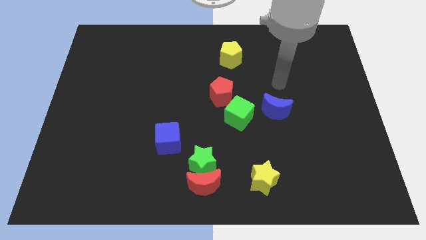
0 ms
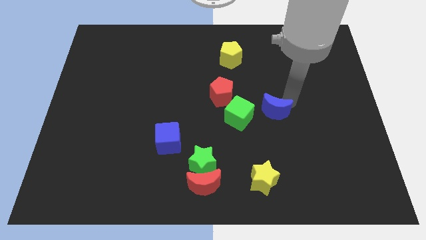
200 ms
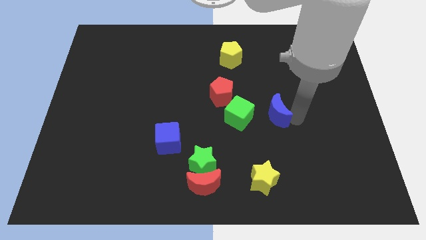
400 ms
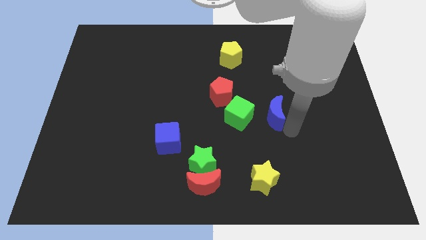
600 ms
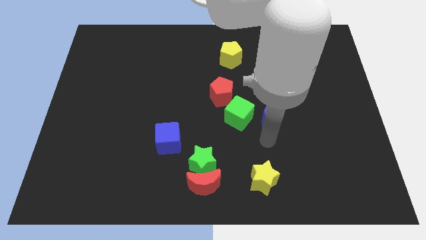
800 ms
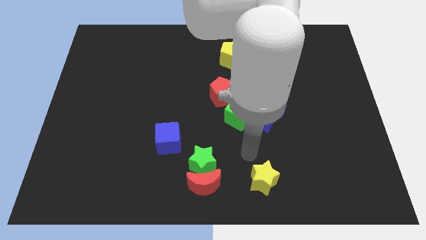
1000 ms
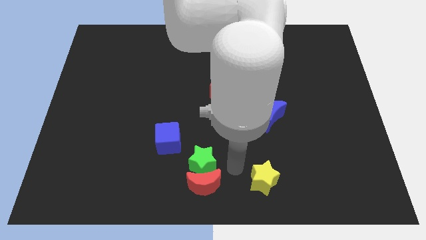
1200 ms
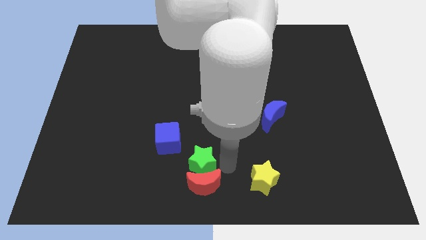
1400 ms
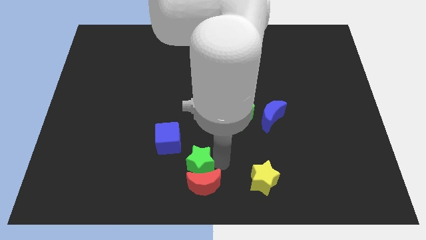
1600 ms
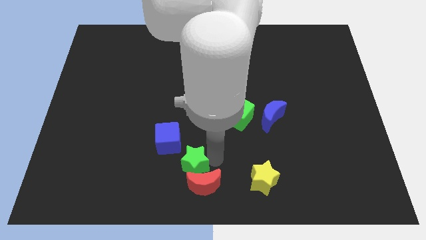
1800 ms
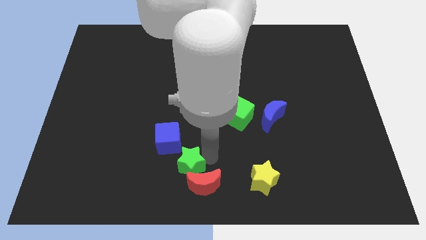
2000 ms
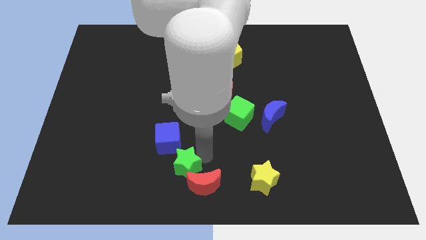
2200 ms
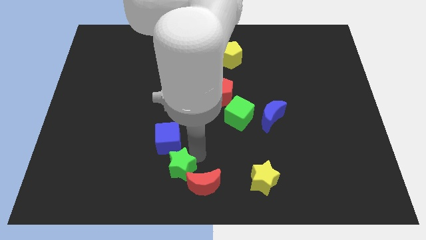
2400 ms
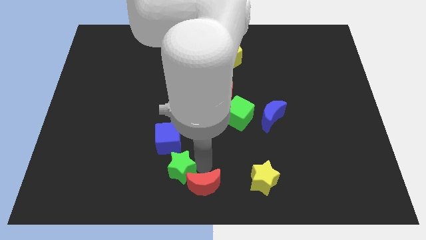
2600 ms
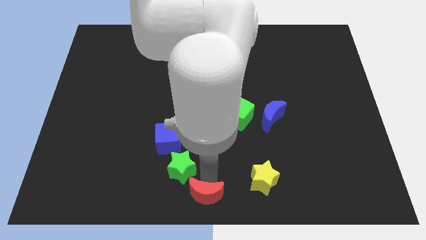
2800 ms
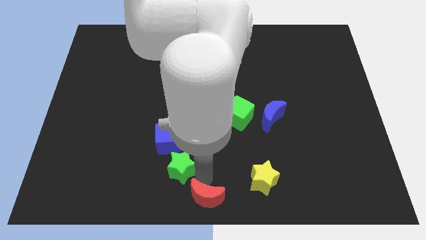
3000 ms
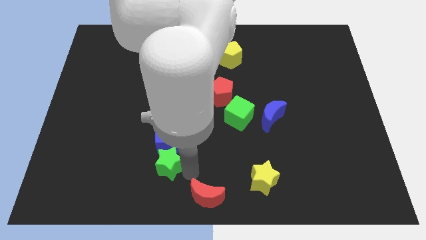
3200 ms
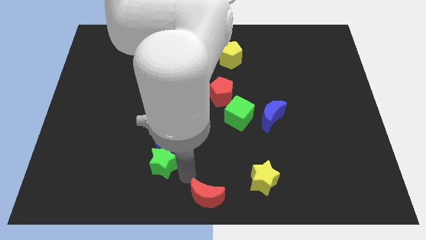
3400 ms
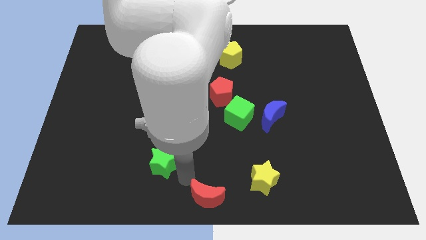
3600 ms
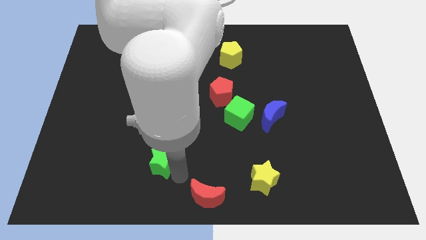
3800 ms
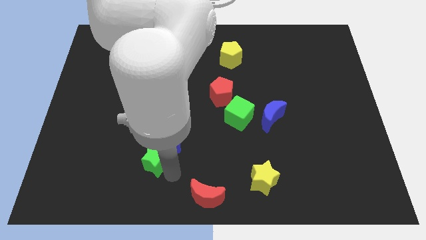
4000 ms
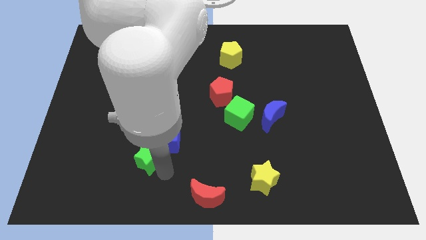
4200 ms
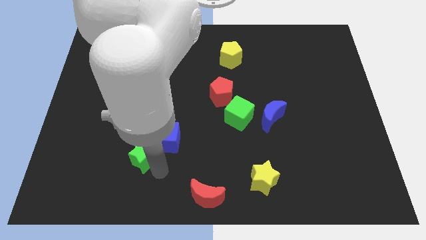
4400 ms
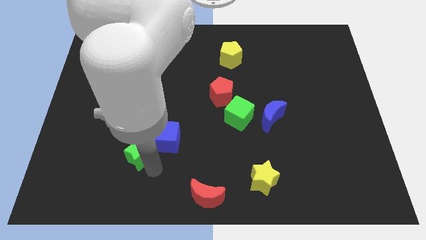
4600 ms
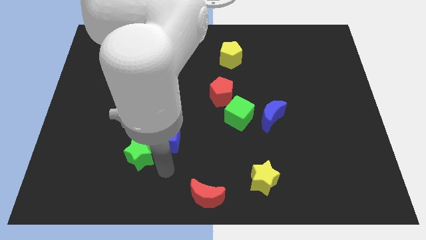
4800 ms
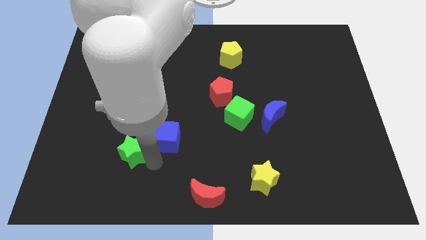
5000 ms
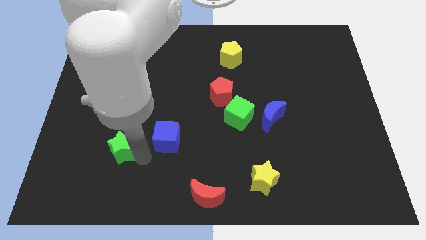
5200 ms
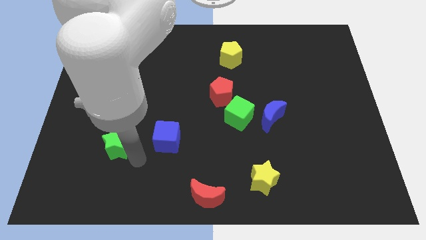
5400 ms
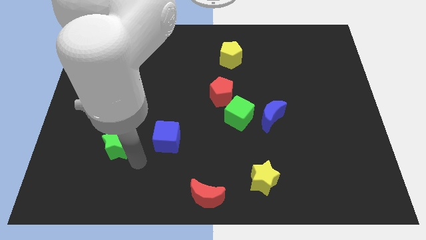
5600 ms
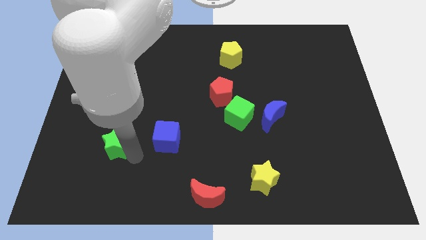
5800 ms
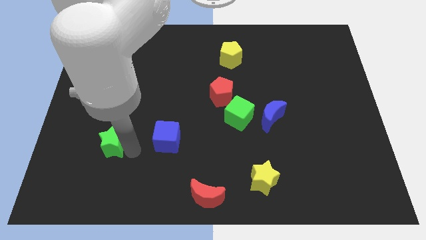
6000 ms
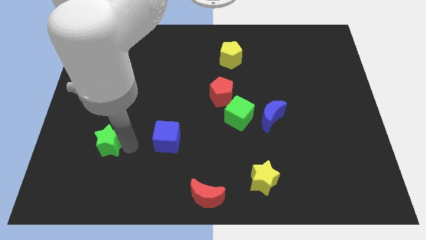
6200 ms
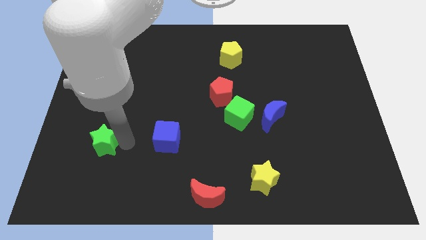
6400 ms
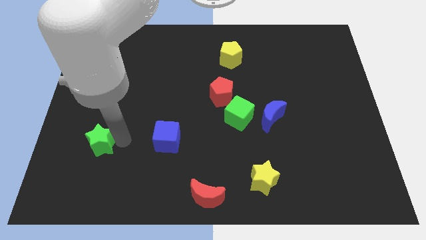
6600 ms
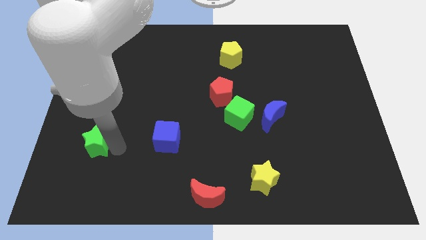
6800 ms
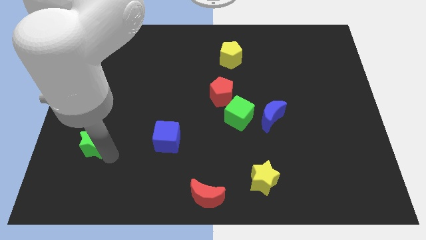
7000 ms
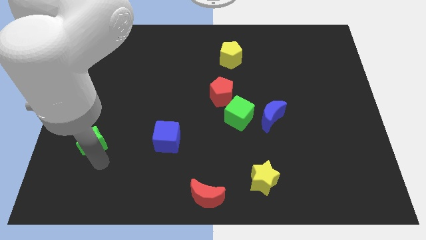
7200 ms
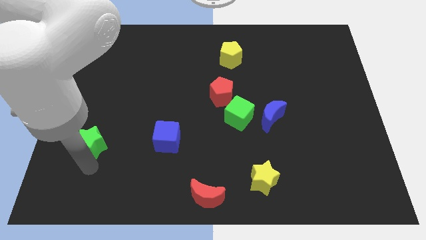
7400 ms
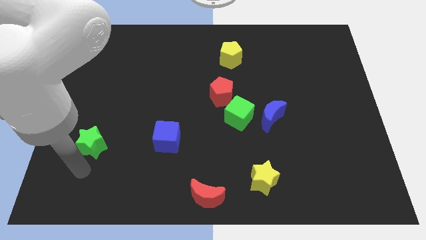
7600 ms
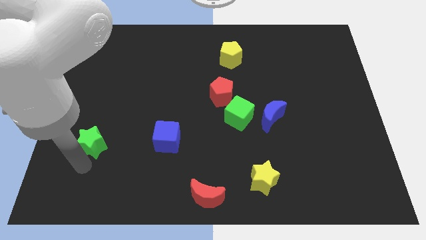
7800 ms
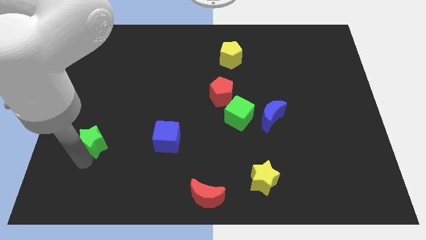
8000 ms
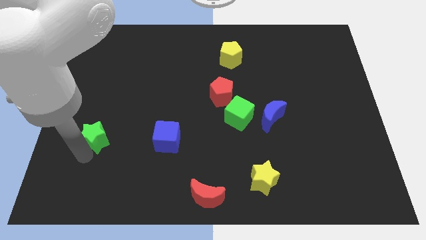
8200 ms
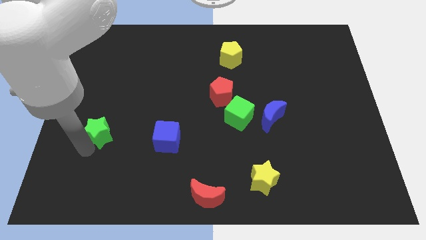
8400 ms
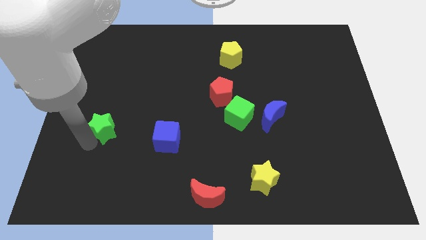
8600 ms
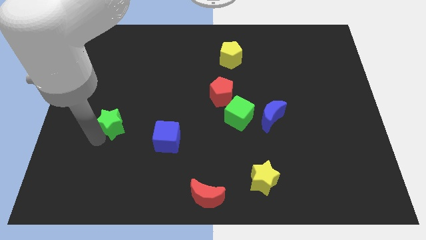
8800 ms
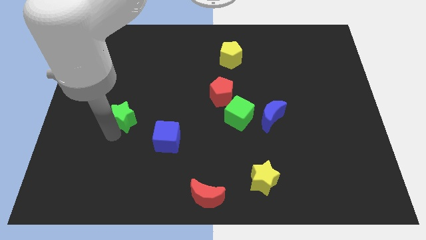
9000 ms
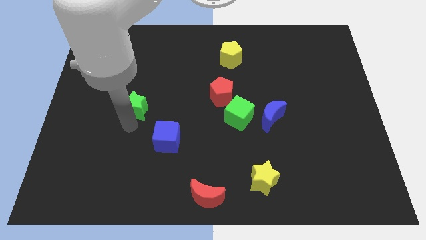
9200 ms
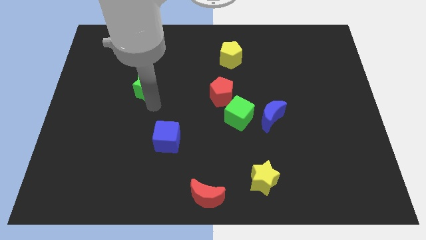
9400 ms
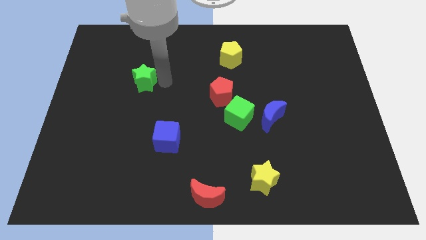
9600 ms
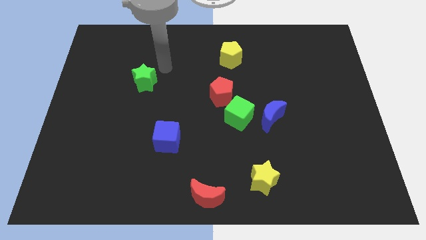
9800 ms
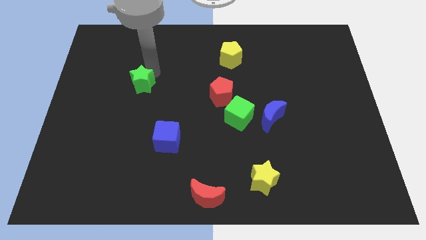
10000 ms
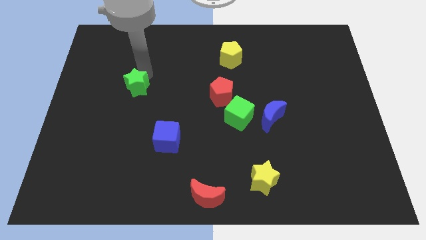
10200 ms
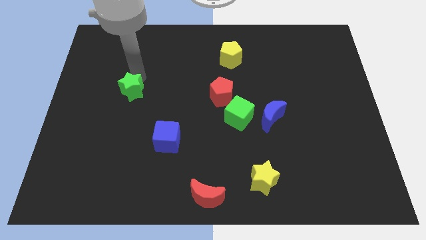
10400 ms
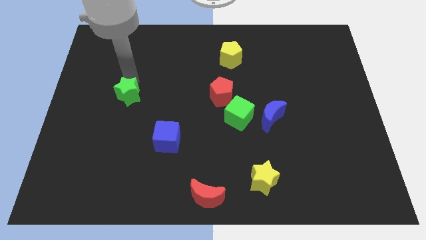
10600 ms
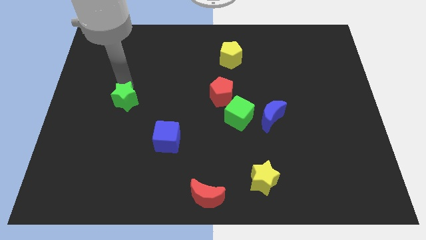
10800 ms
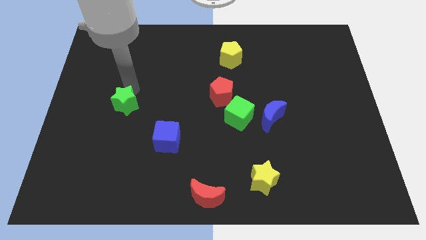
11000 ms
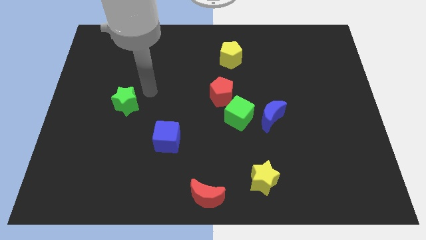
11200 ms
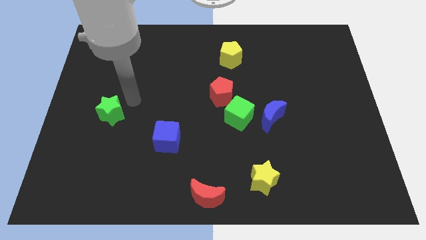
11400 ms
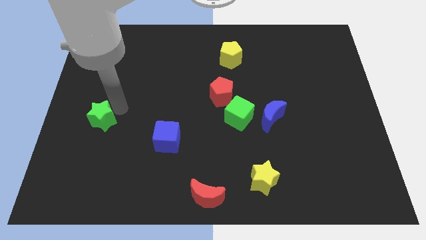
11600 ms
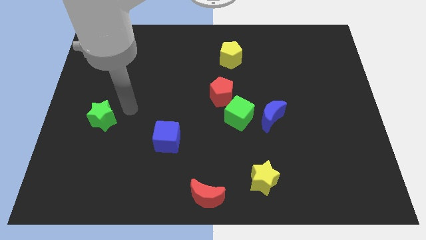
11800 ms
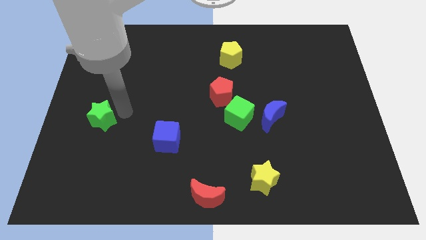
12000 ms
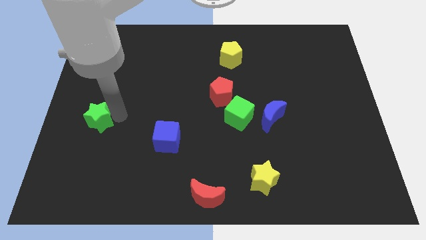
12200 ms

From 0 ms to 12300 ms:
slide the green star to the left side of the board
